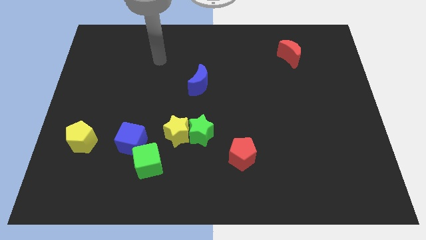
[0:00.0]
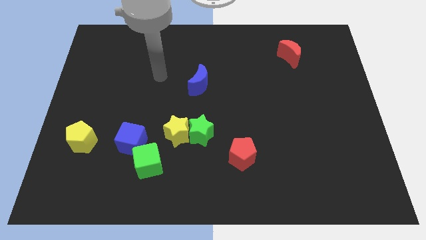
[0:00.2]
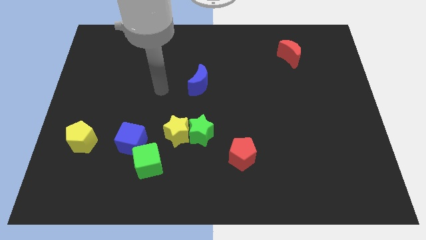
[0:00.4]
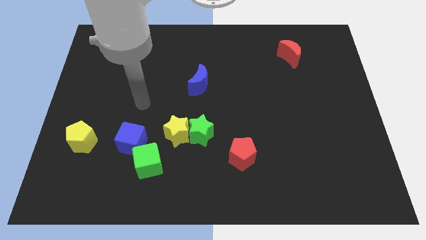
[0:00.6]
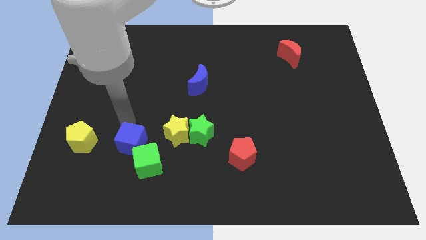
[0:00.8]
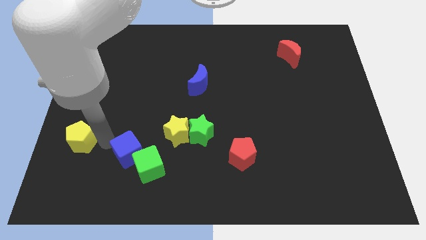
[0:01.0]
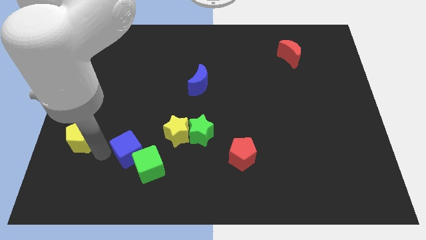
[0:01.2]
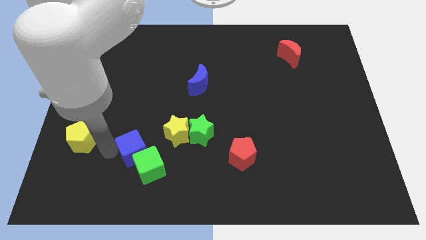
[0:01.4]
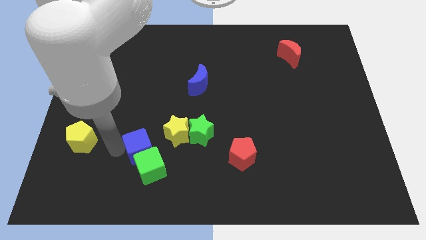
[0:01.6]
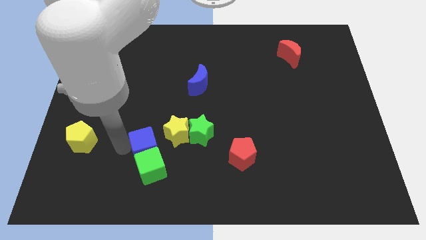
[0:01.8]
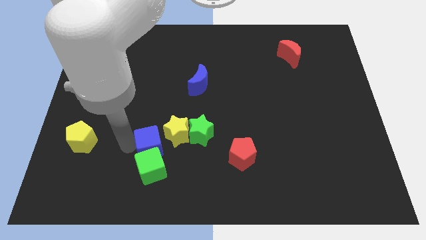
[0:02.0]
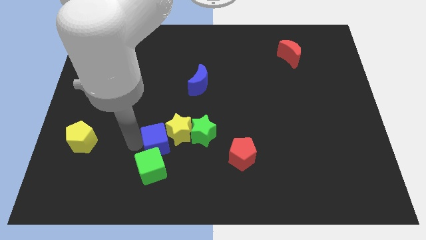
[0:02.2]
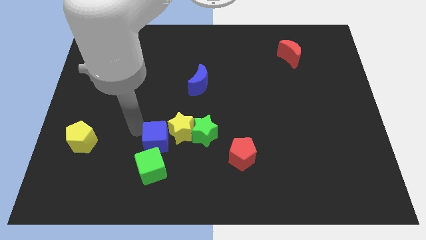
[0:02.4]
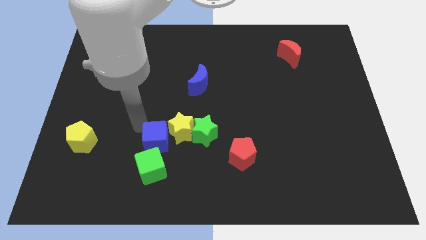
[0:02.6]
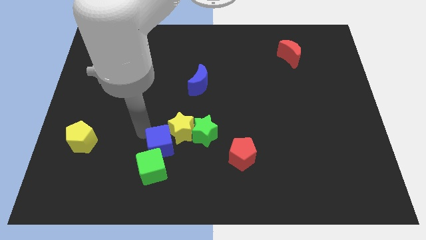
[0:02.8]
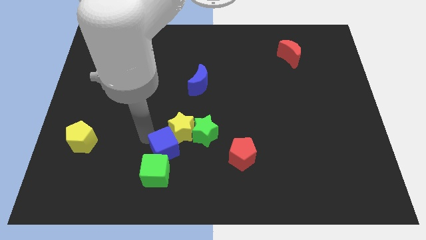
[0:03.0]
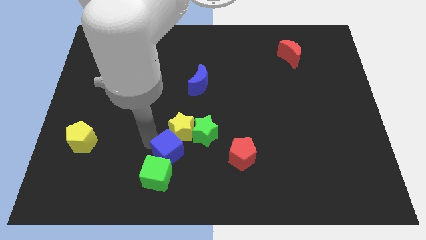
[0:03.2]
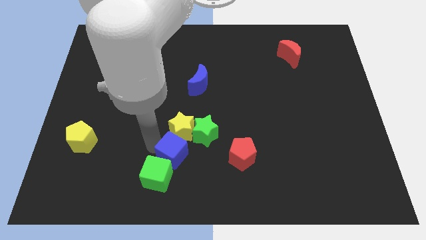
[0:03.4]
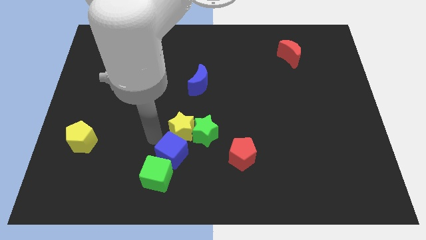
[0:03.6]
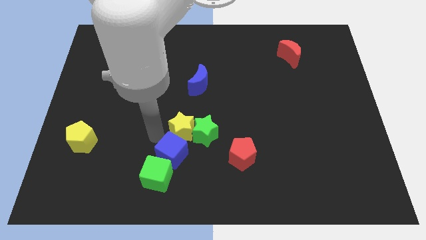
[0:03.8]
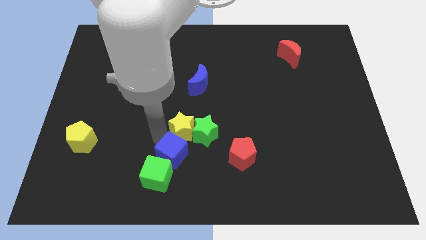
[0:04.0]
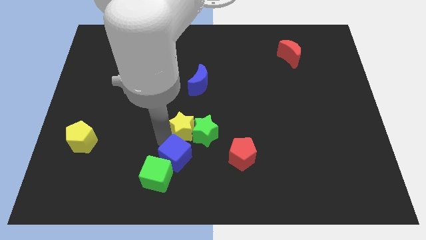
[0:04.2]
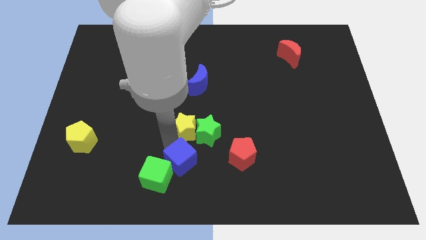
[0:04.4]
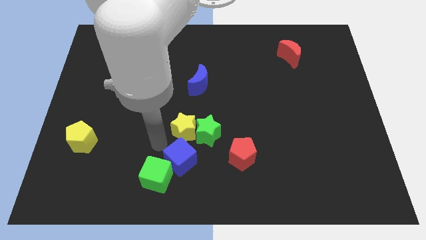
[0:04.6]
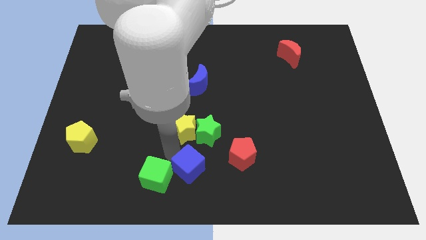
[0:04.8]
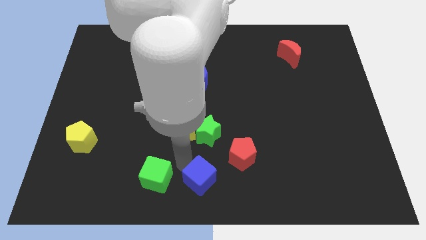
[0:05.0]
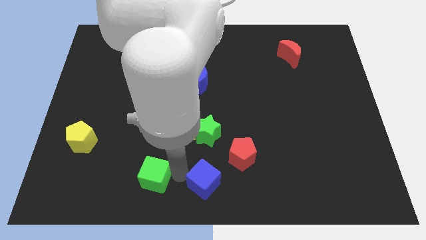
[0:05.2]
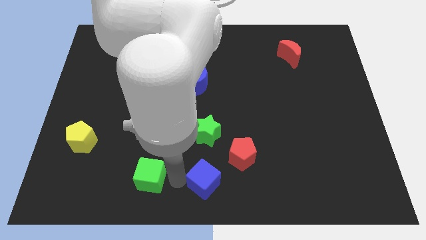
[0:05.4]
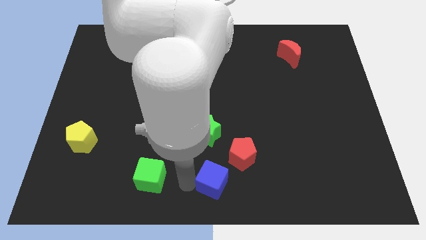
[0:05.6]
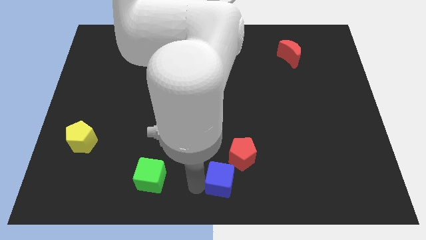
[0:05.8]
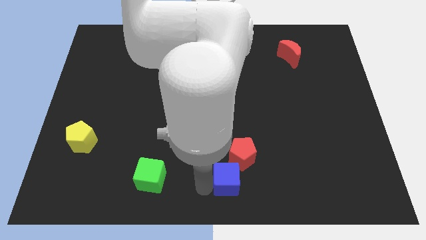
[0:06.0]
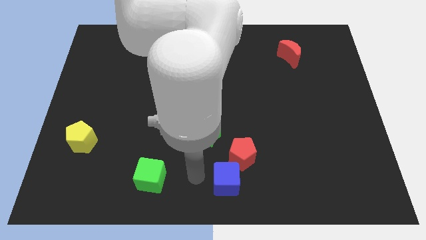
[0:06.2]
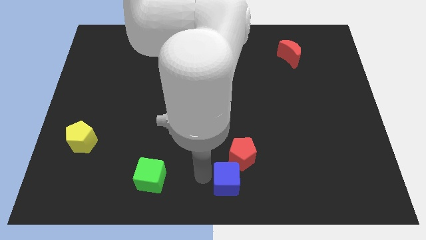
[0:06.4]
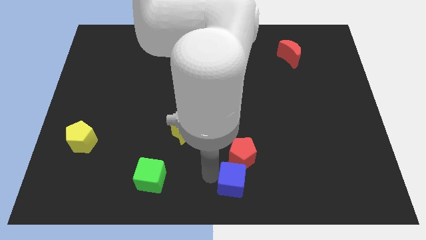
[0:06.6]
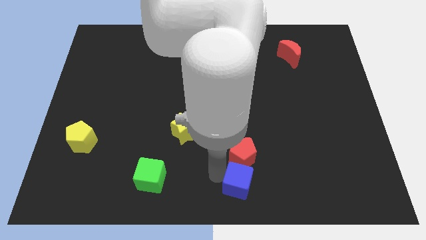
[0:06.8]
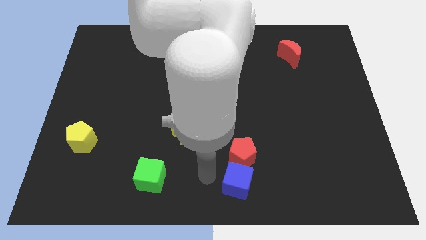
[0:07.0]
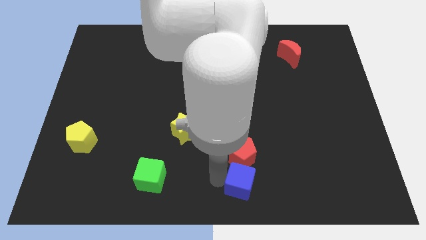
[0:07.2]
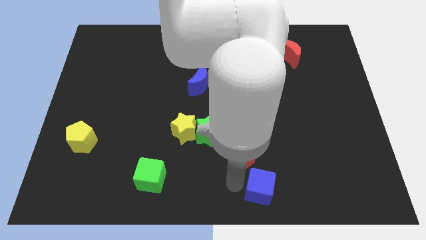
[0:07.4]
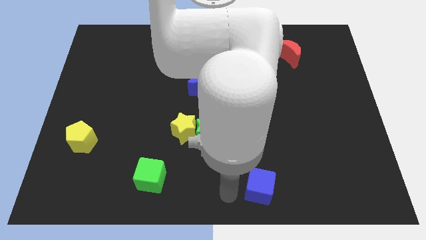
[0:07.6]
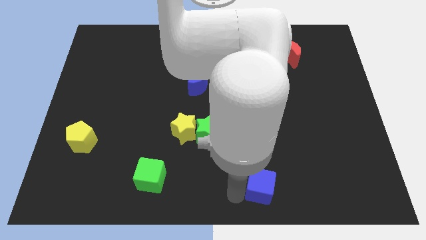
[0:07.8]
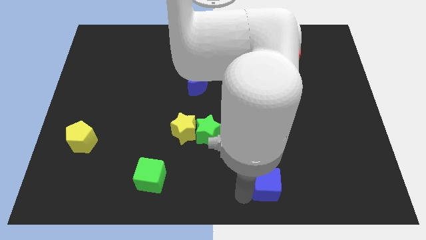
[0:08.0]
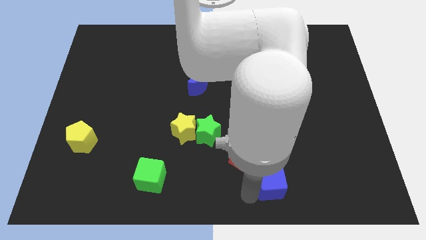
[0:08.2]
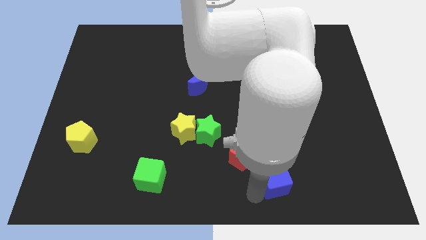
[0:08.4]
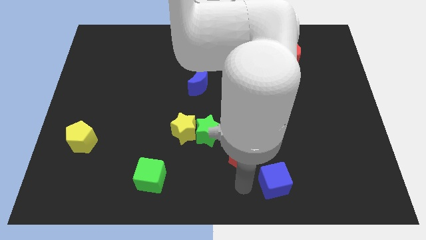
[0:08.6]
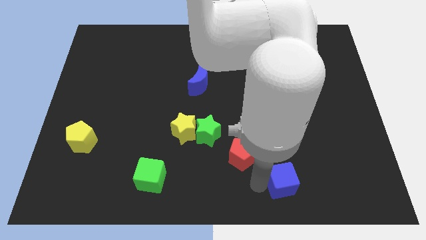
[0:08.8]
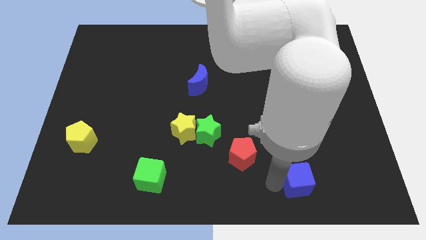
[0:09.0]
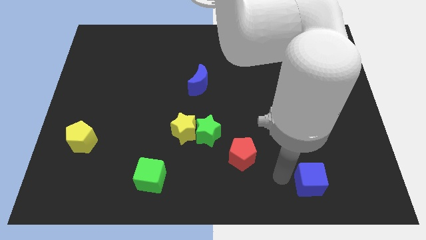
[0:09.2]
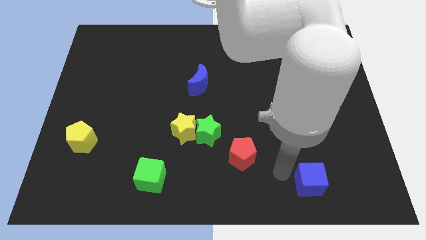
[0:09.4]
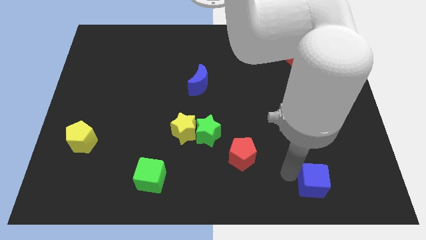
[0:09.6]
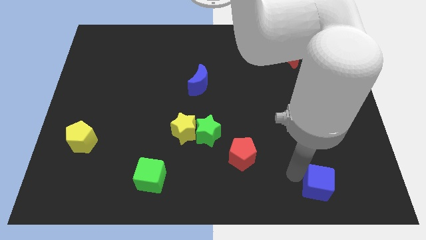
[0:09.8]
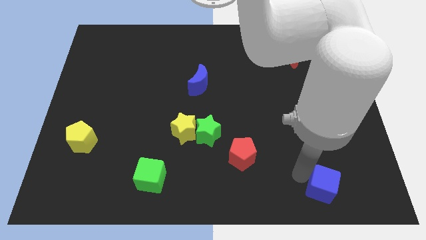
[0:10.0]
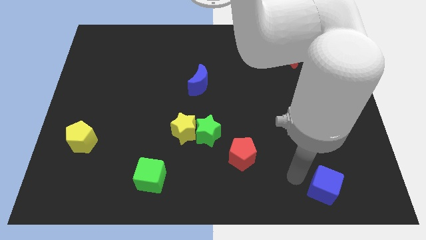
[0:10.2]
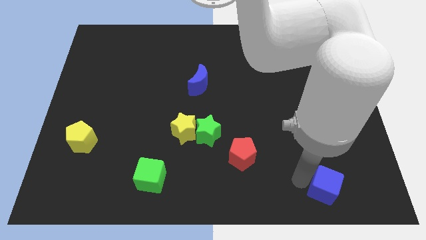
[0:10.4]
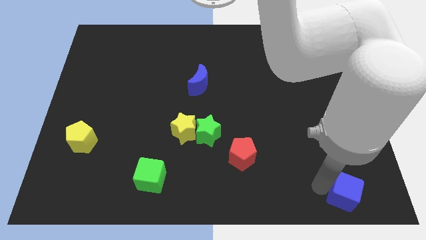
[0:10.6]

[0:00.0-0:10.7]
put the blue cube to the bottom right corner

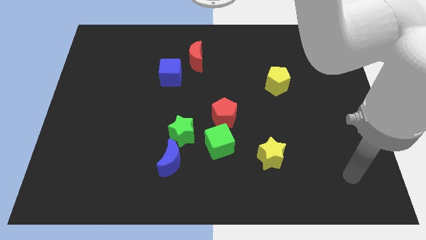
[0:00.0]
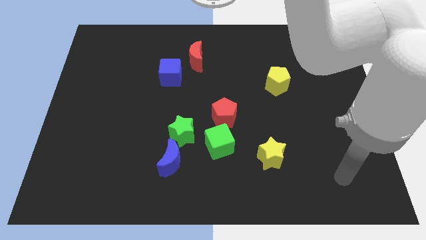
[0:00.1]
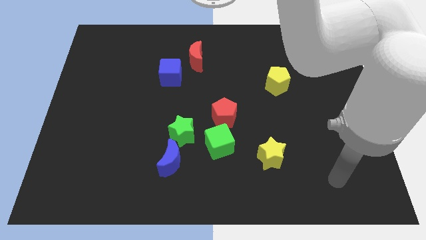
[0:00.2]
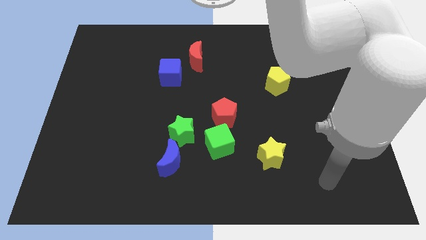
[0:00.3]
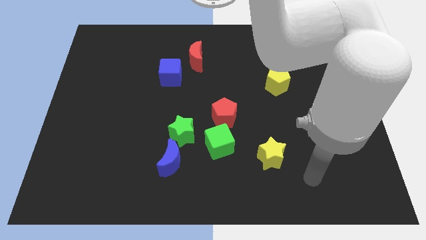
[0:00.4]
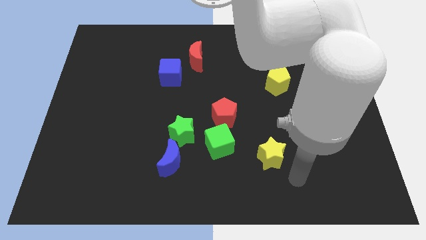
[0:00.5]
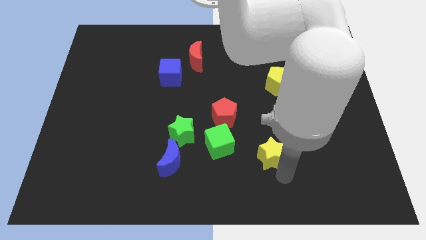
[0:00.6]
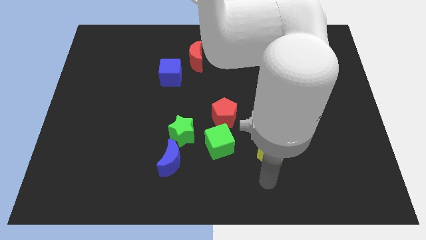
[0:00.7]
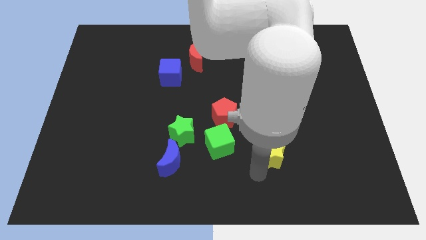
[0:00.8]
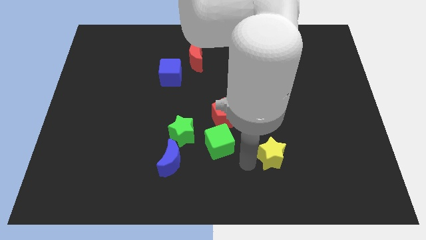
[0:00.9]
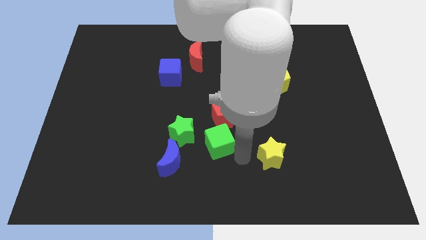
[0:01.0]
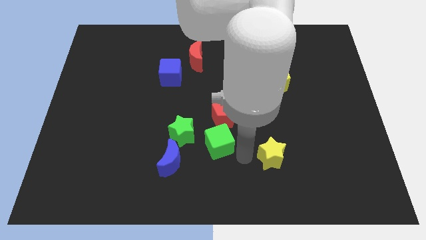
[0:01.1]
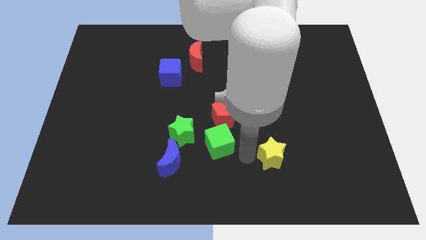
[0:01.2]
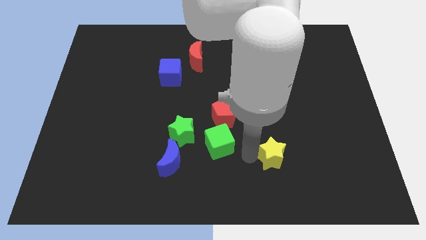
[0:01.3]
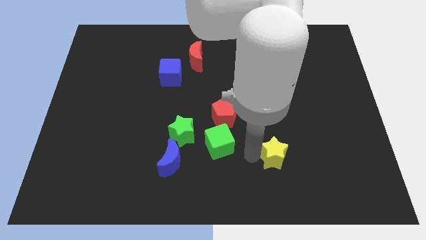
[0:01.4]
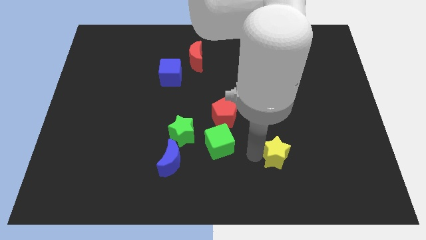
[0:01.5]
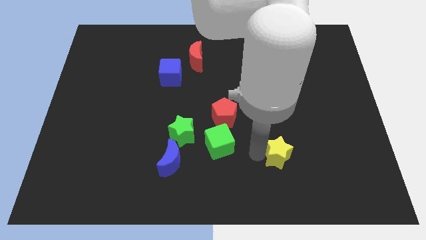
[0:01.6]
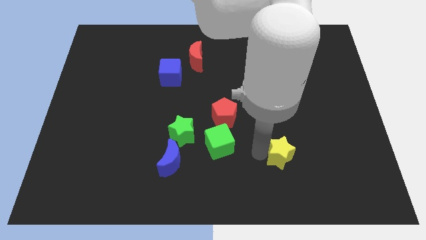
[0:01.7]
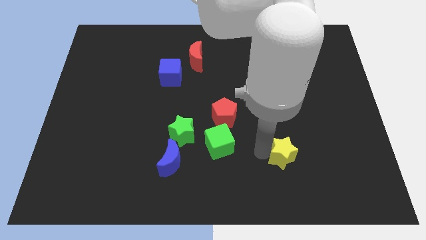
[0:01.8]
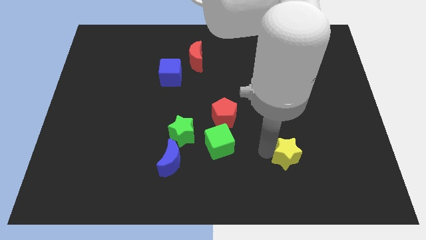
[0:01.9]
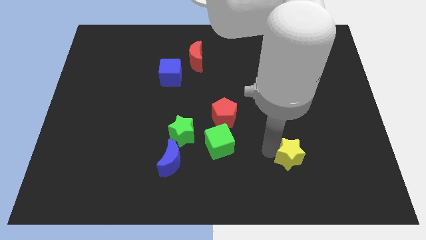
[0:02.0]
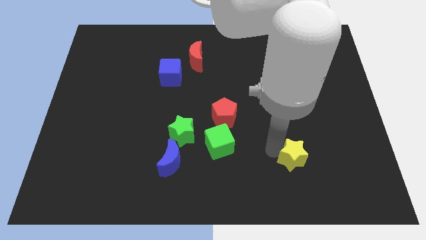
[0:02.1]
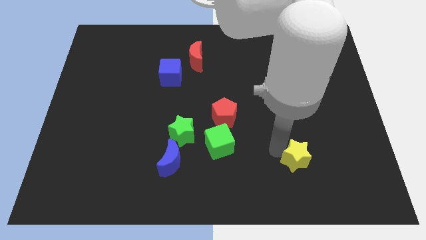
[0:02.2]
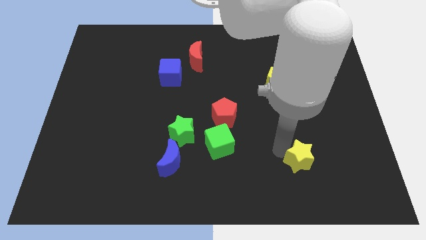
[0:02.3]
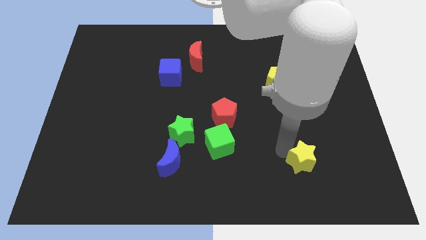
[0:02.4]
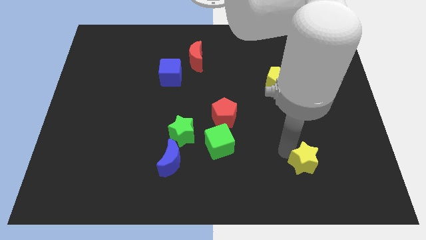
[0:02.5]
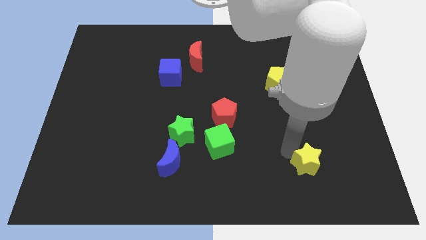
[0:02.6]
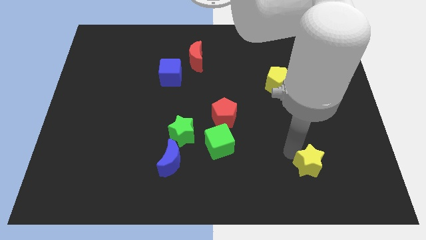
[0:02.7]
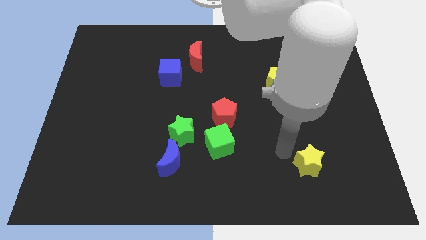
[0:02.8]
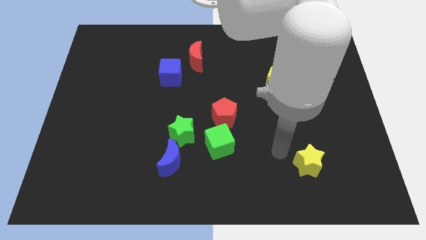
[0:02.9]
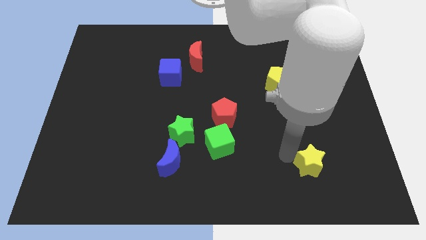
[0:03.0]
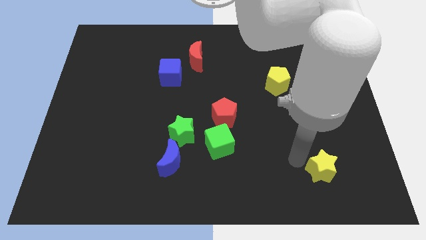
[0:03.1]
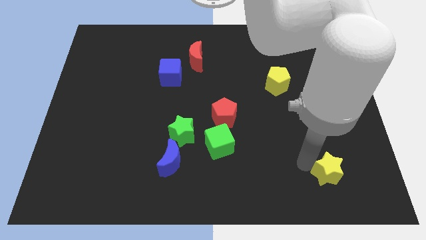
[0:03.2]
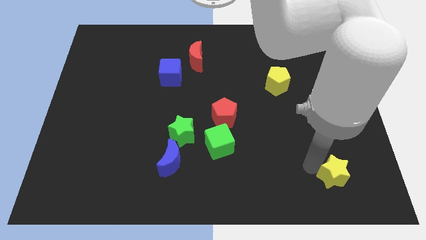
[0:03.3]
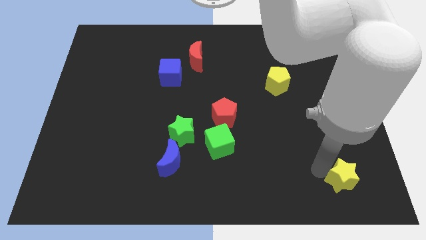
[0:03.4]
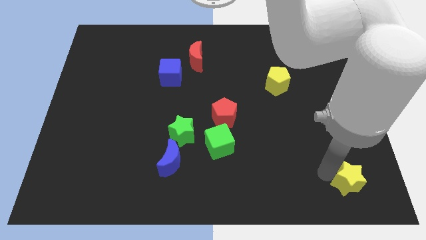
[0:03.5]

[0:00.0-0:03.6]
put the yellow star to the bottom right
